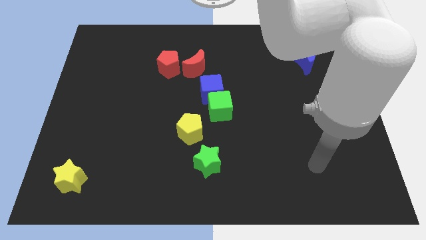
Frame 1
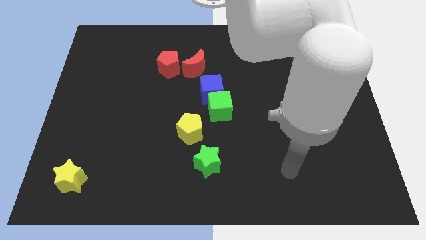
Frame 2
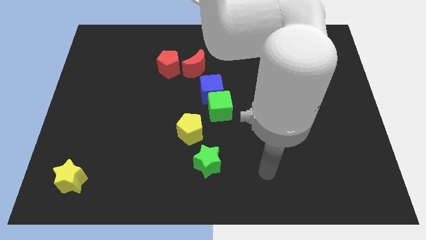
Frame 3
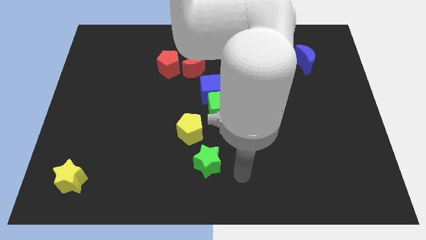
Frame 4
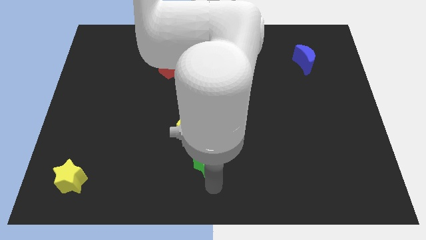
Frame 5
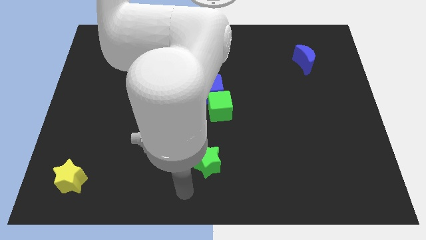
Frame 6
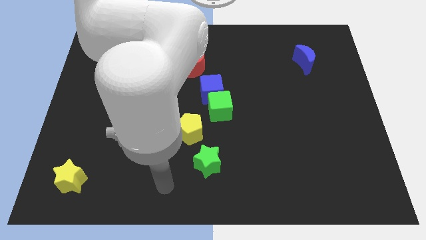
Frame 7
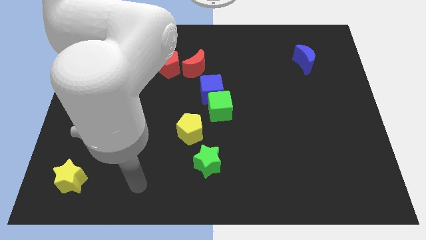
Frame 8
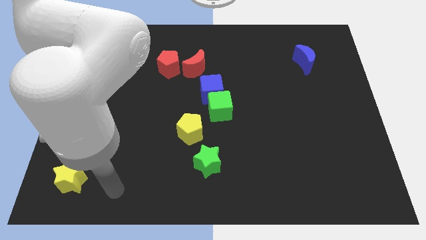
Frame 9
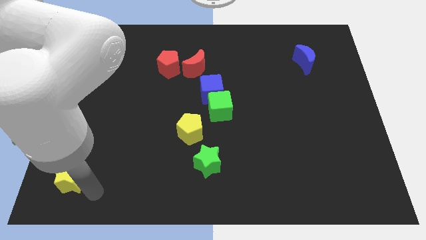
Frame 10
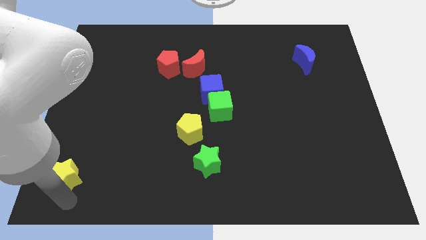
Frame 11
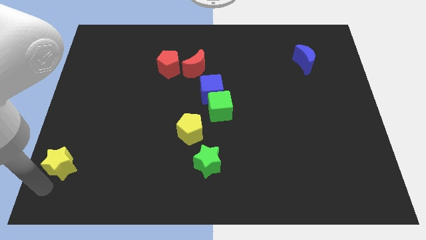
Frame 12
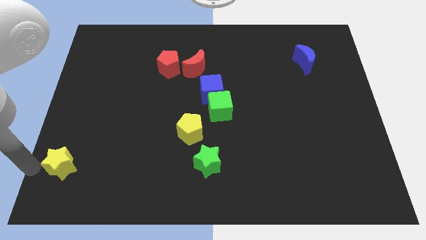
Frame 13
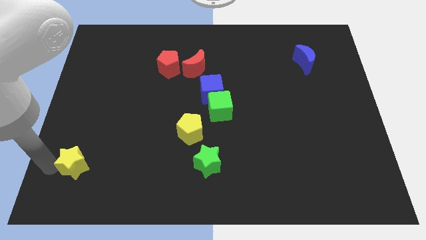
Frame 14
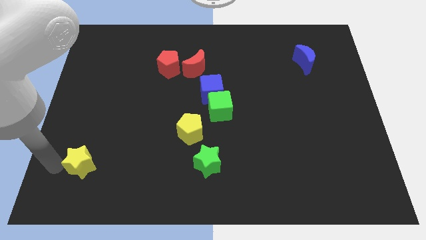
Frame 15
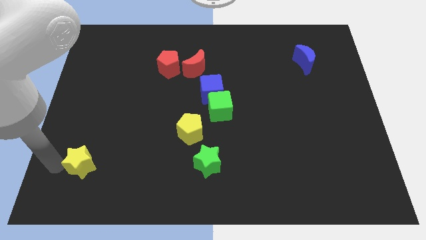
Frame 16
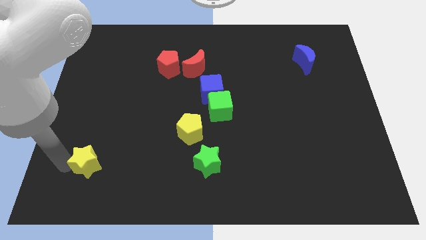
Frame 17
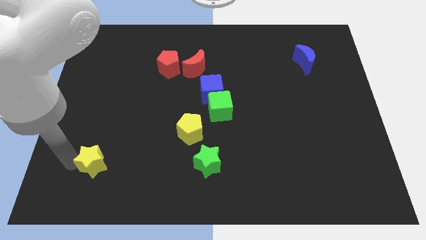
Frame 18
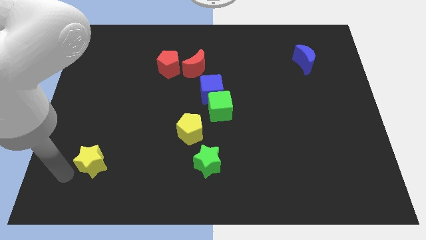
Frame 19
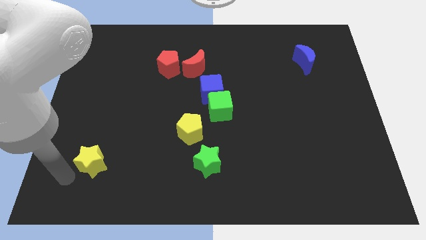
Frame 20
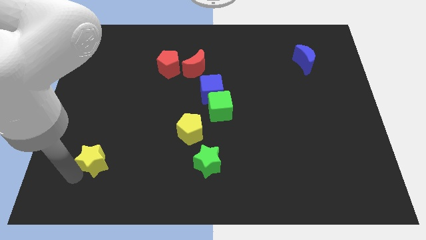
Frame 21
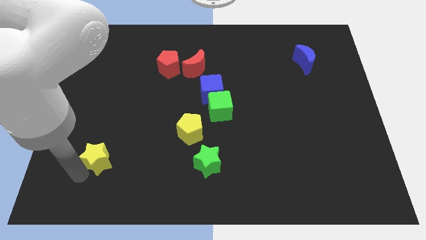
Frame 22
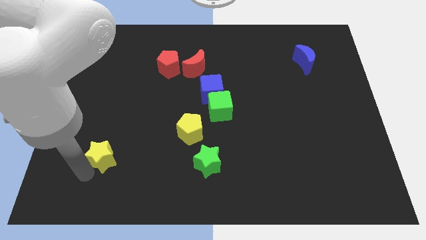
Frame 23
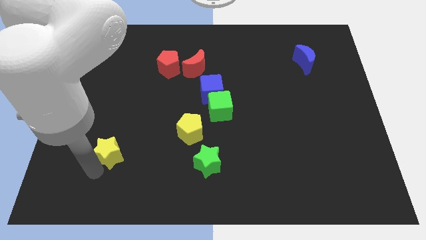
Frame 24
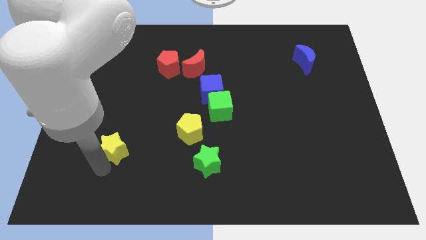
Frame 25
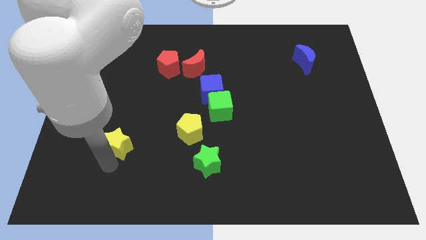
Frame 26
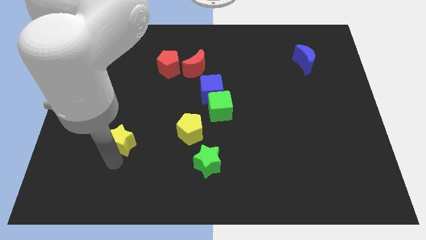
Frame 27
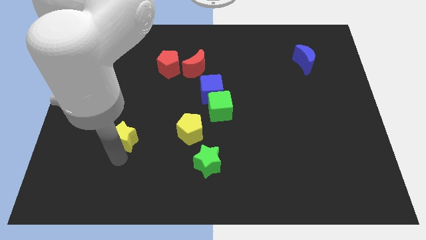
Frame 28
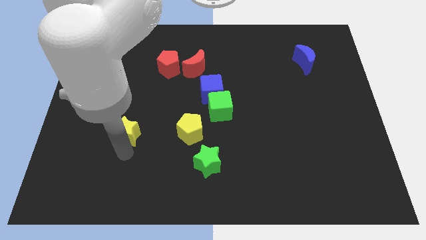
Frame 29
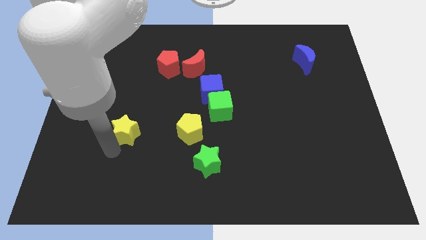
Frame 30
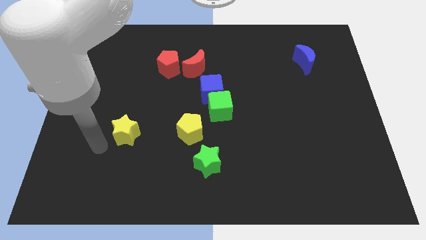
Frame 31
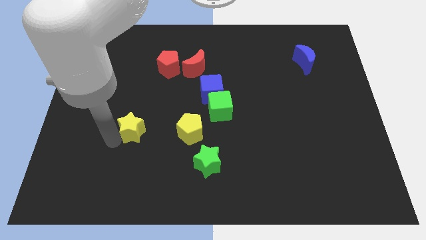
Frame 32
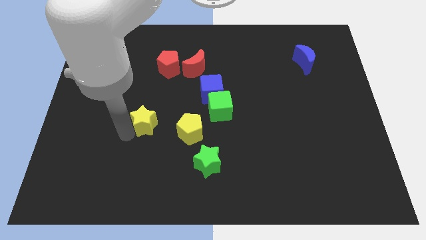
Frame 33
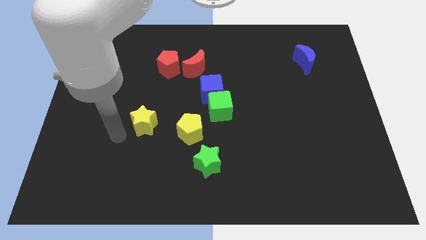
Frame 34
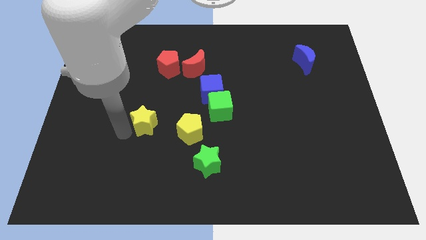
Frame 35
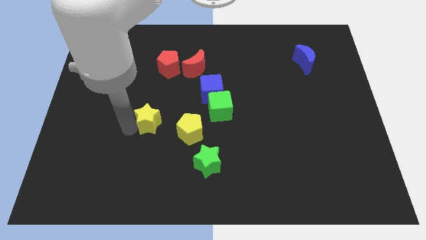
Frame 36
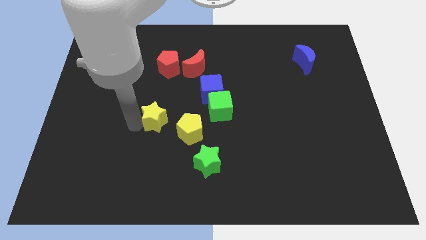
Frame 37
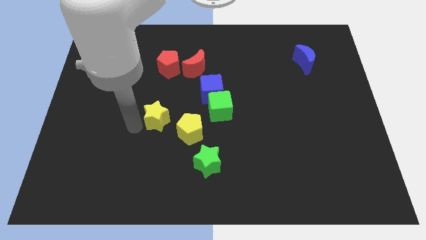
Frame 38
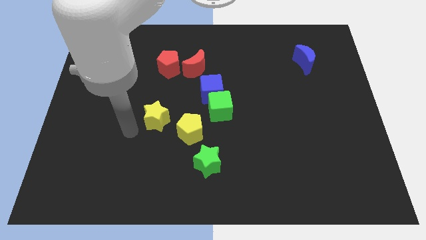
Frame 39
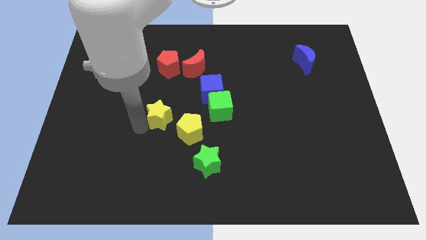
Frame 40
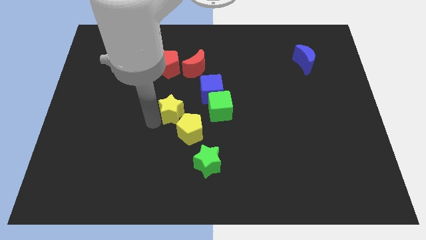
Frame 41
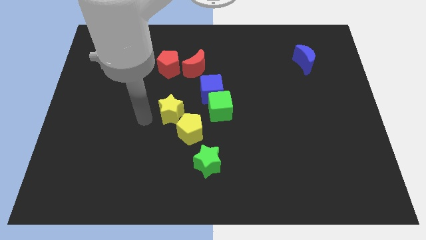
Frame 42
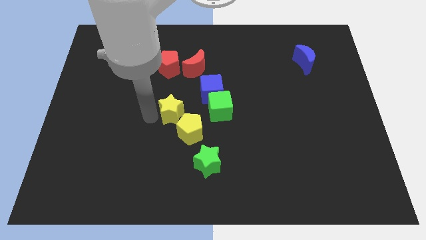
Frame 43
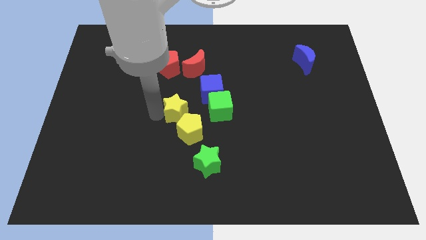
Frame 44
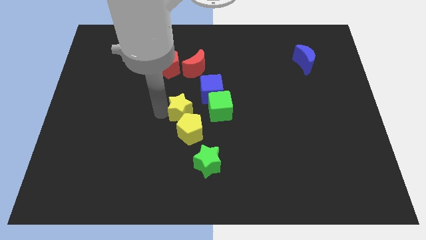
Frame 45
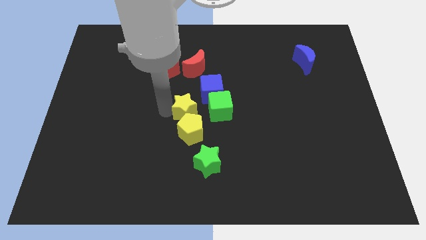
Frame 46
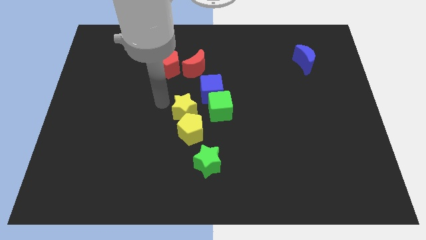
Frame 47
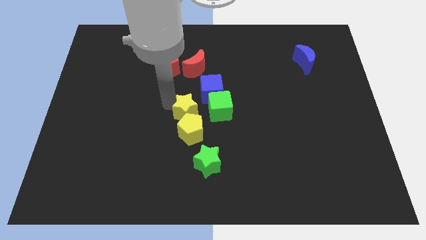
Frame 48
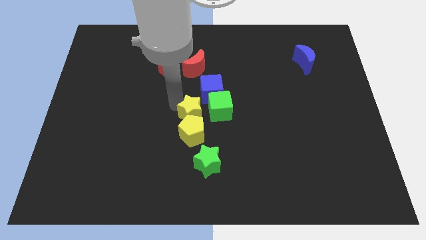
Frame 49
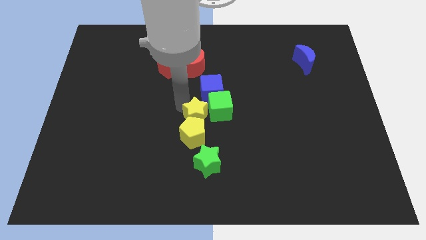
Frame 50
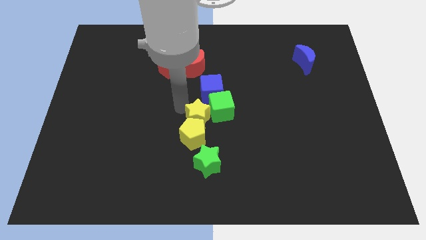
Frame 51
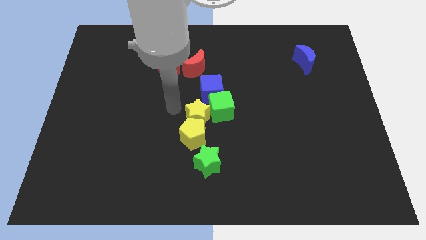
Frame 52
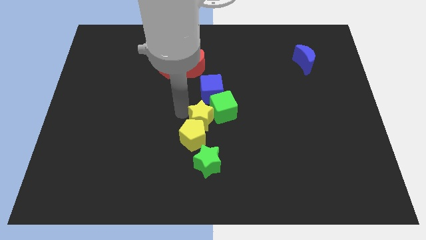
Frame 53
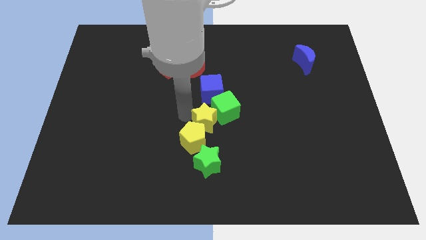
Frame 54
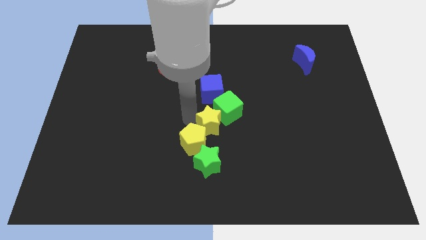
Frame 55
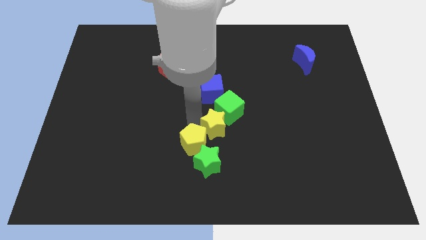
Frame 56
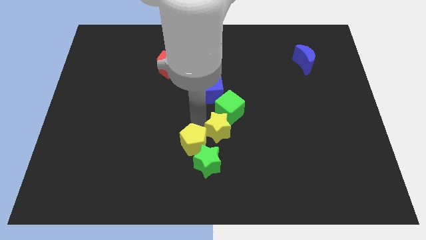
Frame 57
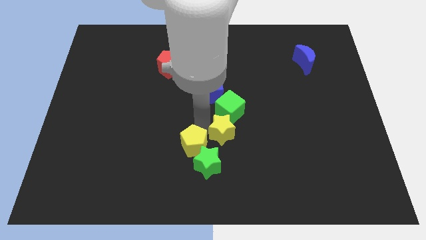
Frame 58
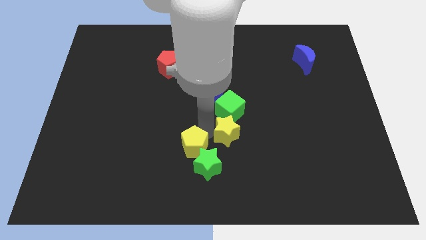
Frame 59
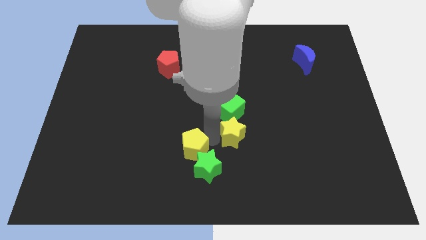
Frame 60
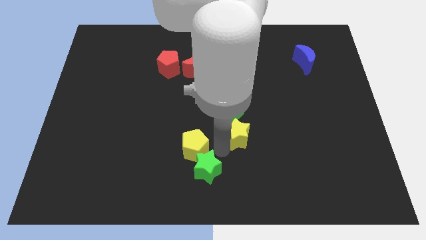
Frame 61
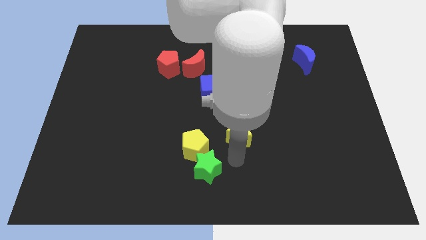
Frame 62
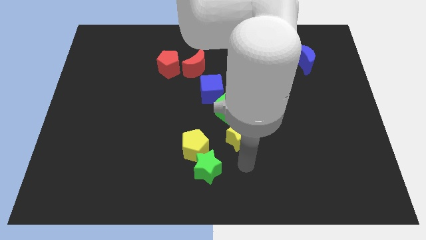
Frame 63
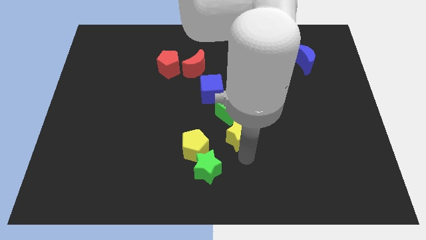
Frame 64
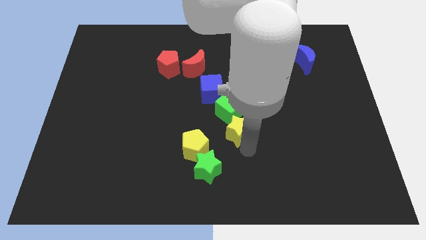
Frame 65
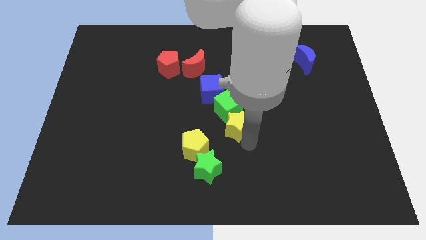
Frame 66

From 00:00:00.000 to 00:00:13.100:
slide the yellow star to the bottom right side of the blue cube

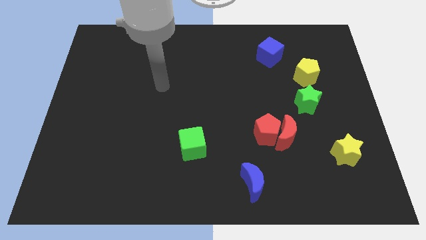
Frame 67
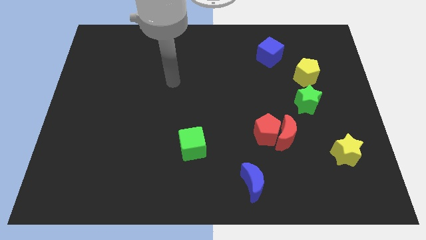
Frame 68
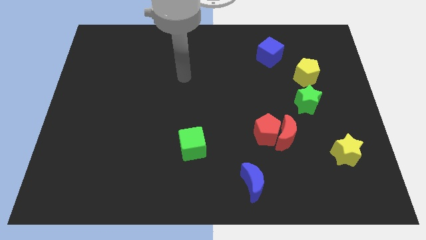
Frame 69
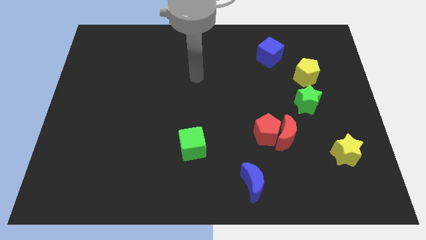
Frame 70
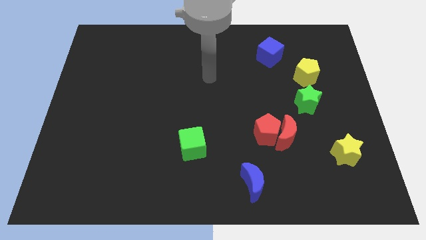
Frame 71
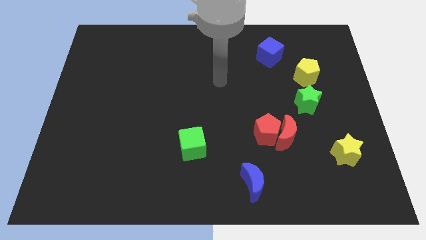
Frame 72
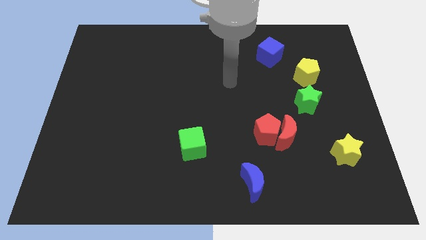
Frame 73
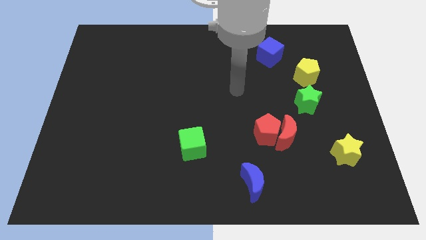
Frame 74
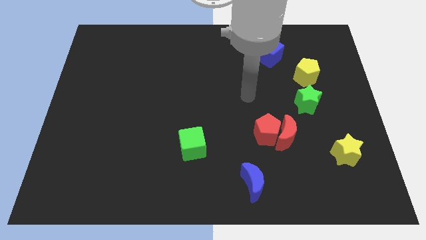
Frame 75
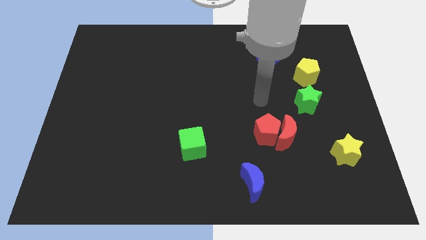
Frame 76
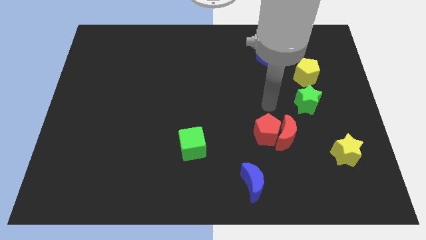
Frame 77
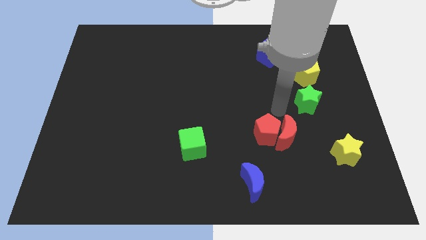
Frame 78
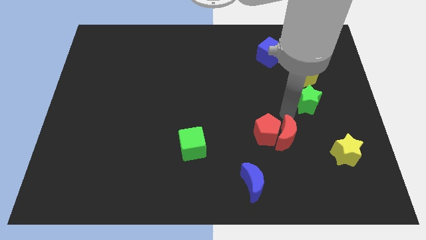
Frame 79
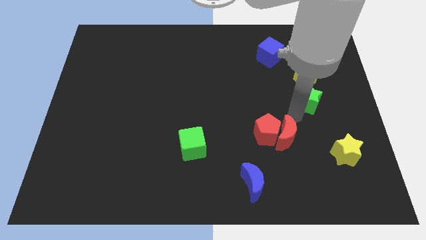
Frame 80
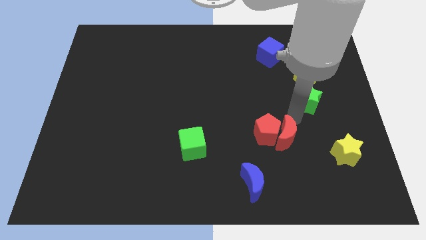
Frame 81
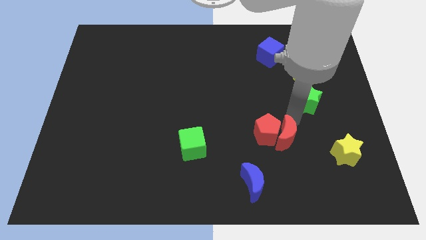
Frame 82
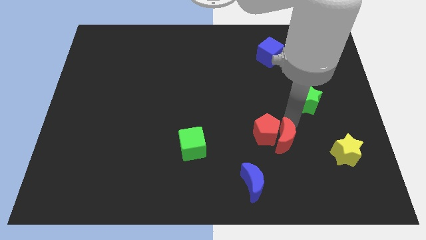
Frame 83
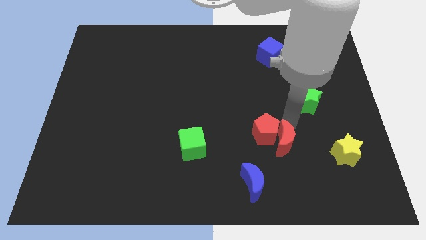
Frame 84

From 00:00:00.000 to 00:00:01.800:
move the red moon to the top right of the blue moon

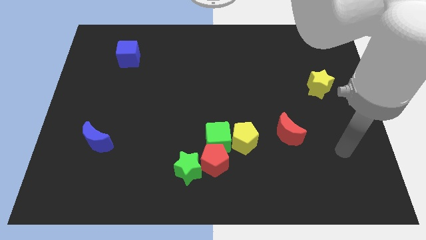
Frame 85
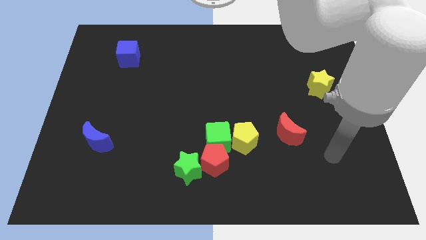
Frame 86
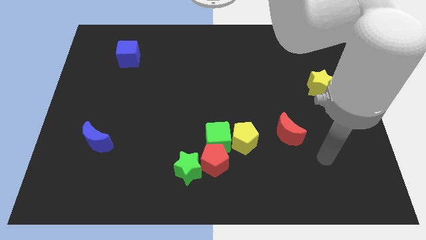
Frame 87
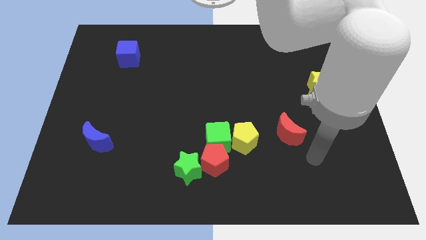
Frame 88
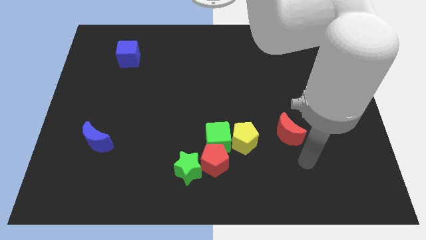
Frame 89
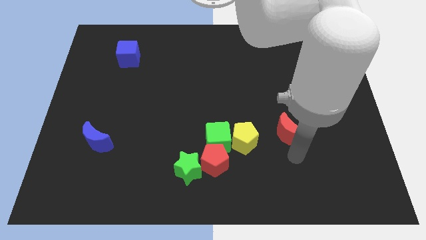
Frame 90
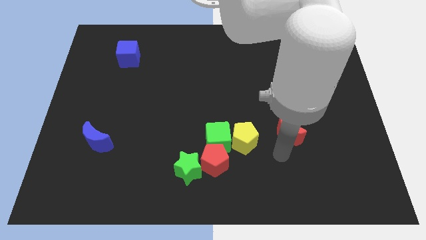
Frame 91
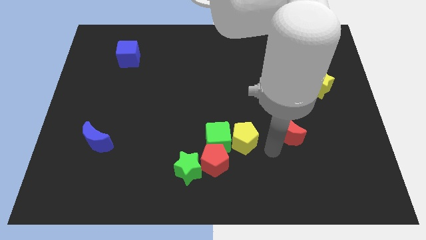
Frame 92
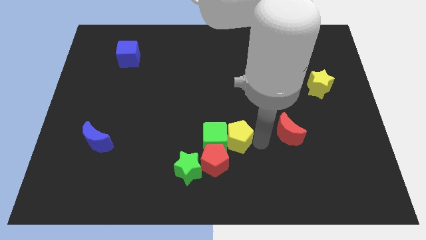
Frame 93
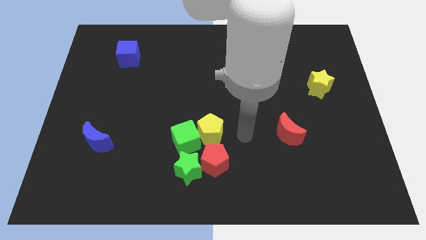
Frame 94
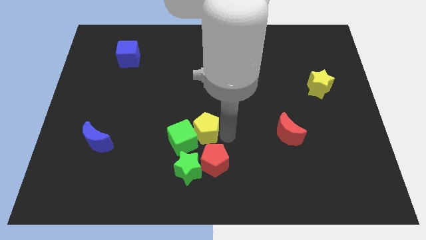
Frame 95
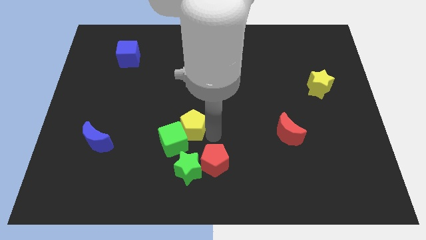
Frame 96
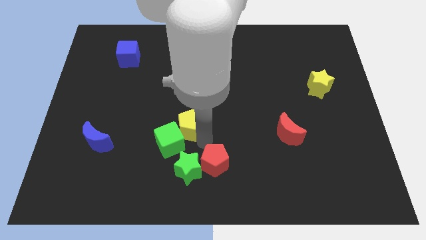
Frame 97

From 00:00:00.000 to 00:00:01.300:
slide the green cube right of the blue moon
